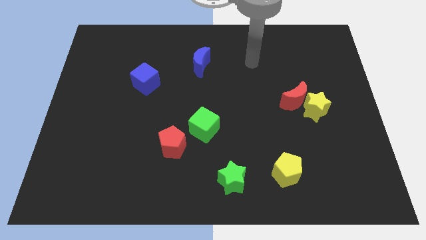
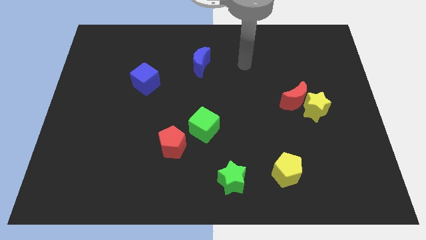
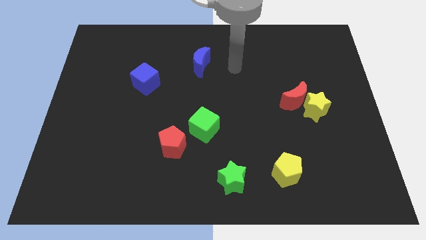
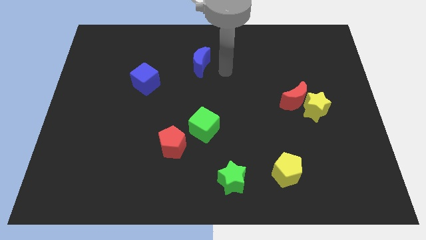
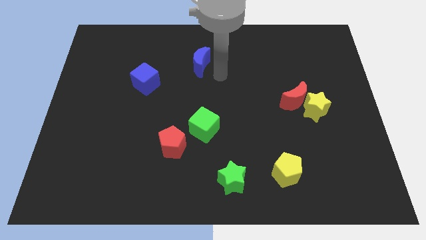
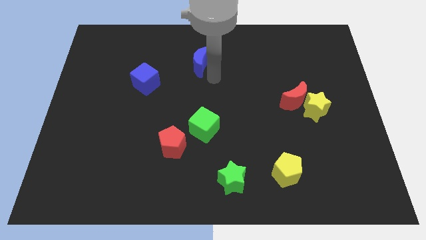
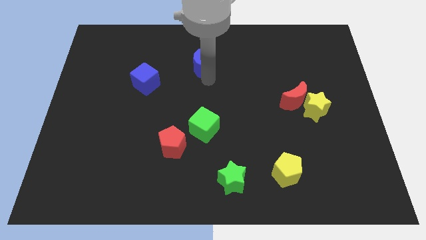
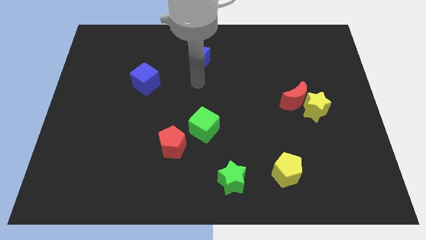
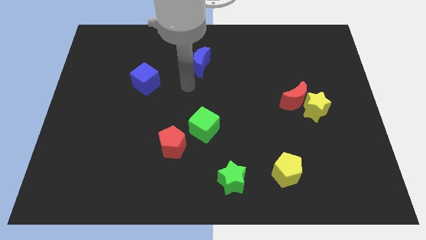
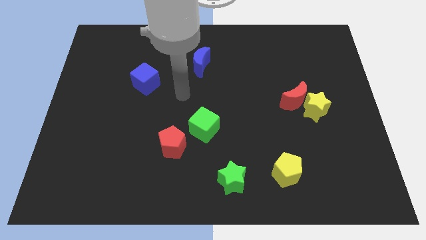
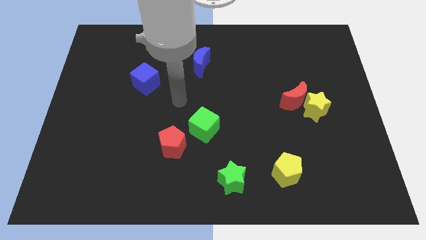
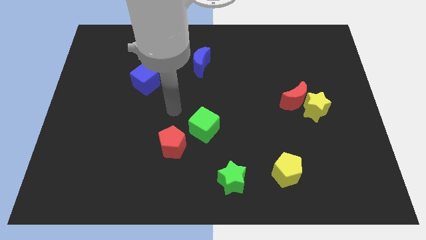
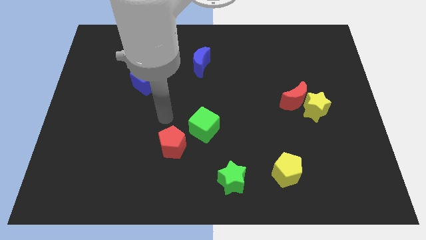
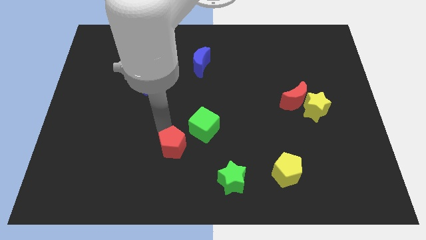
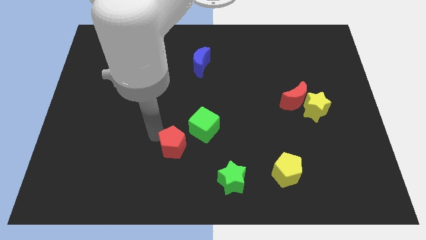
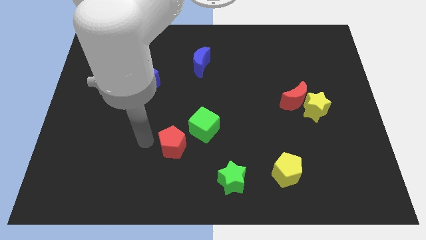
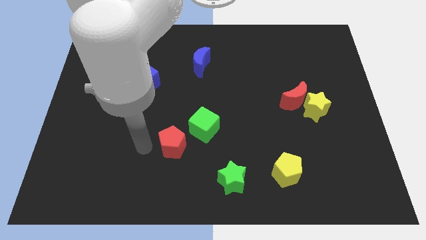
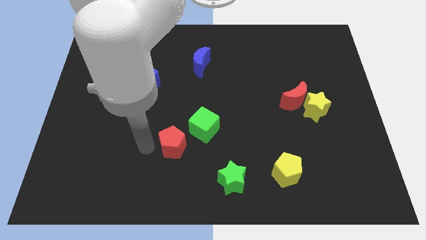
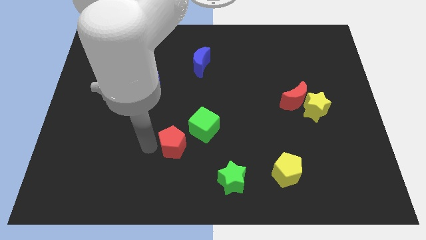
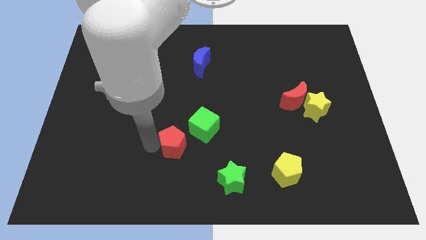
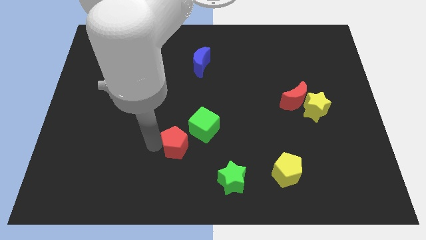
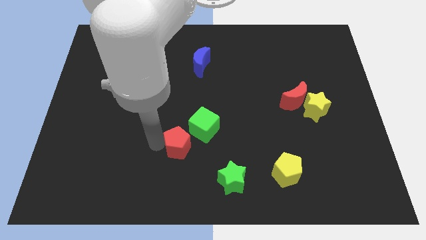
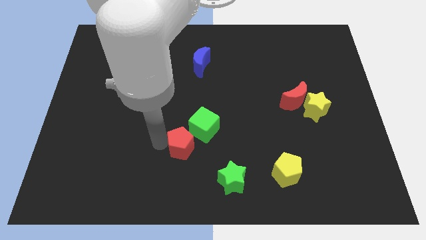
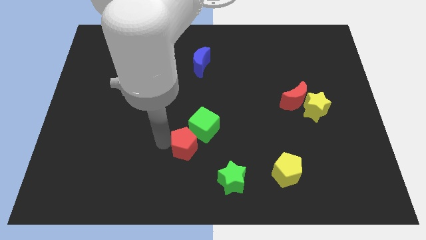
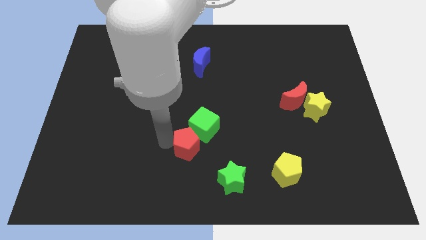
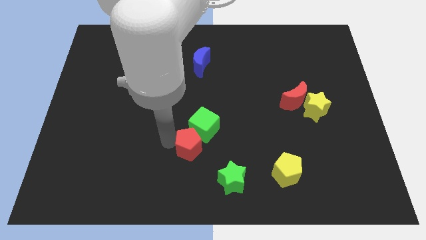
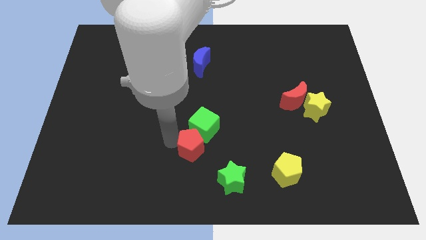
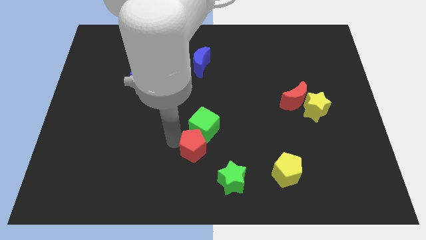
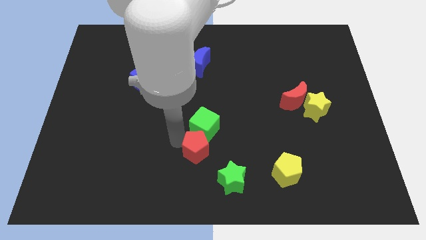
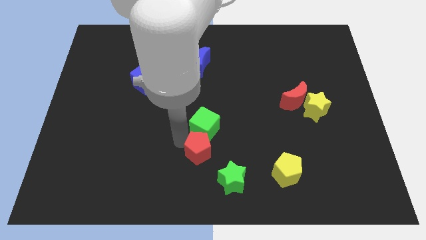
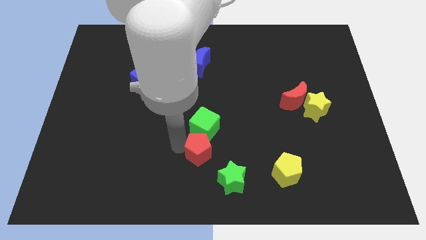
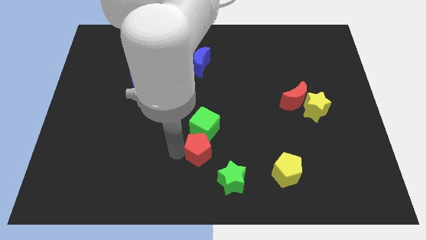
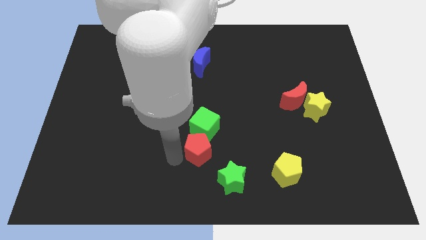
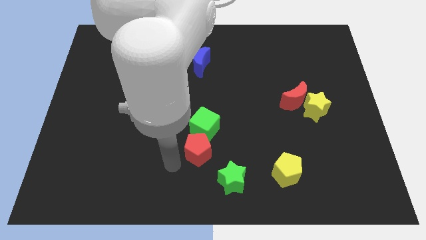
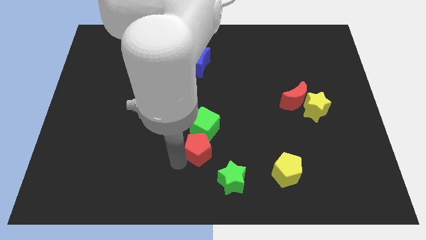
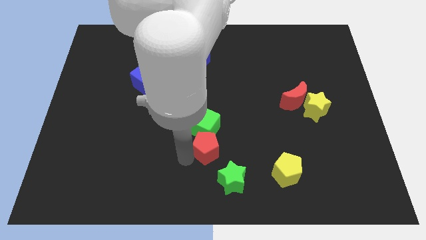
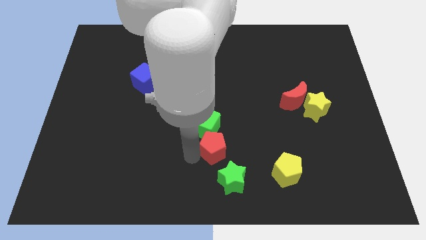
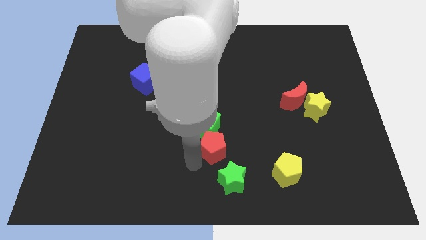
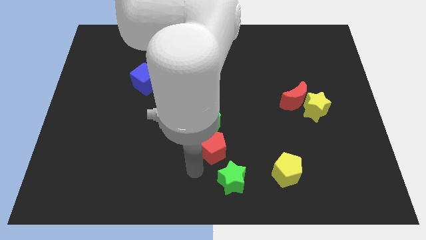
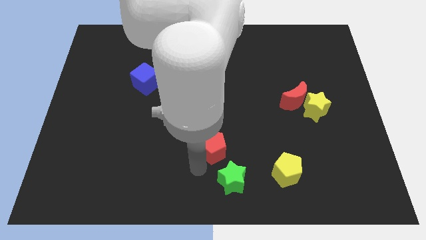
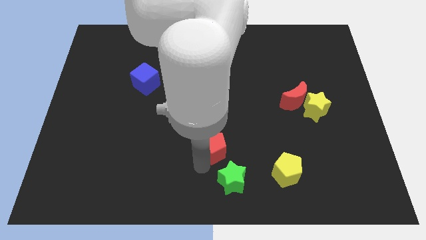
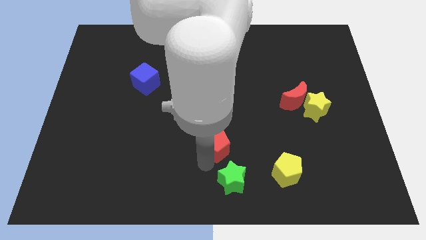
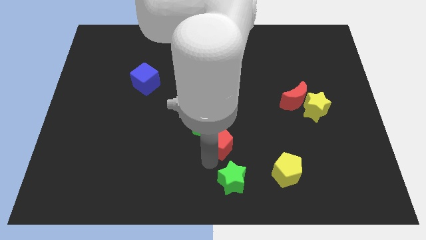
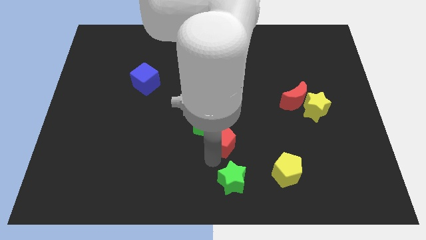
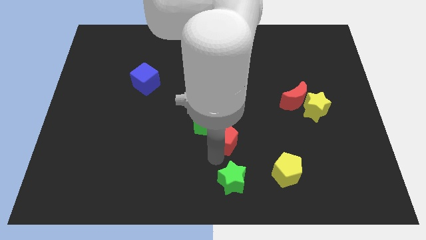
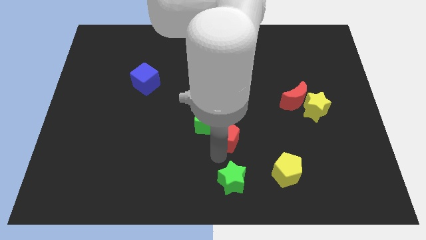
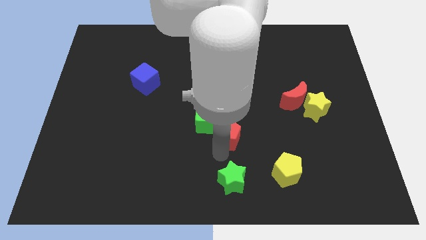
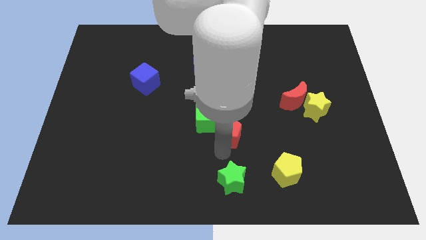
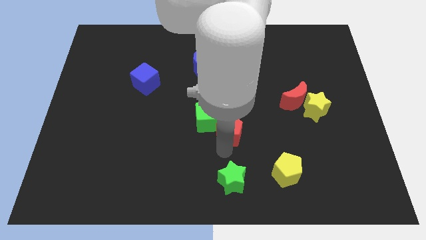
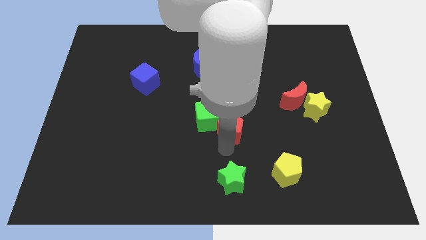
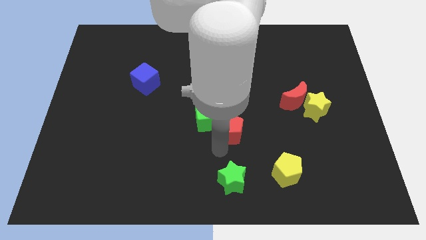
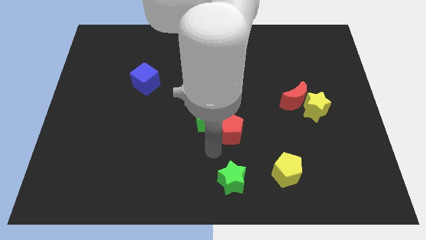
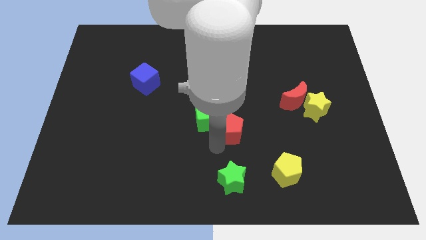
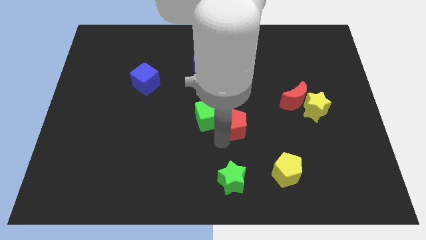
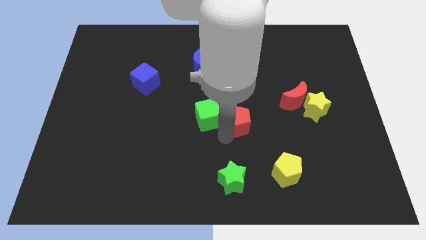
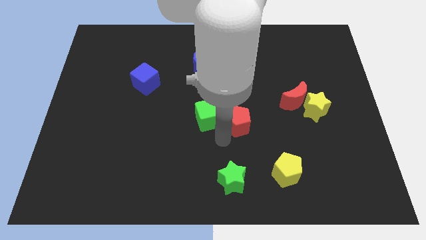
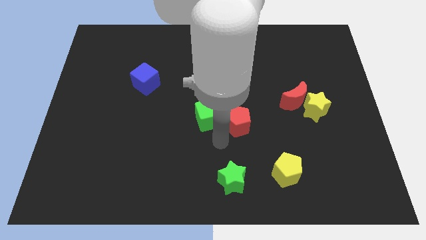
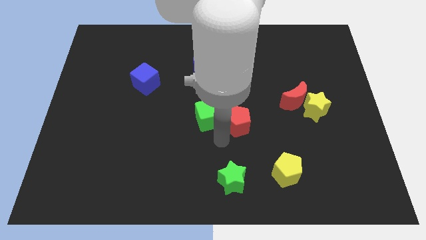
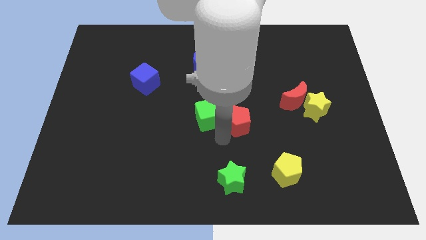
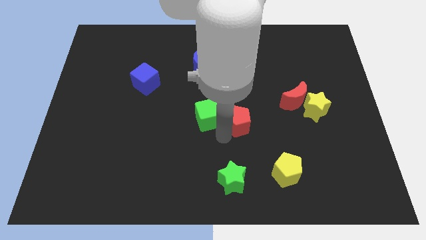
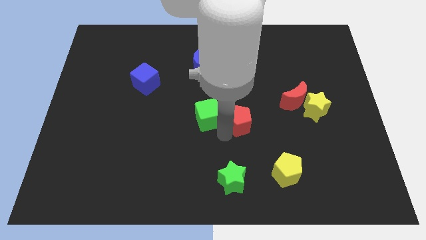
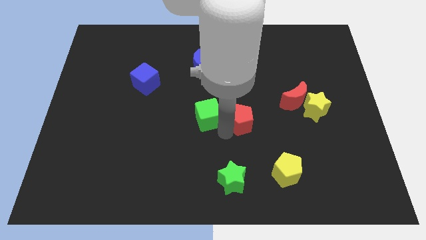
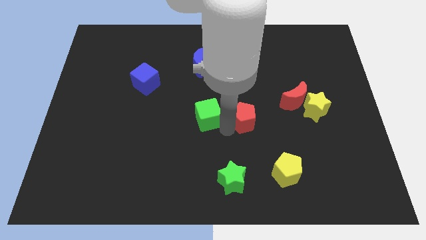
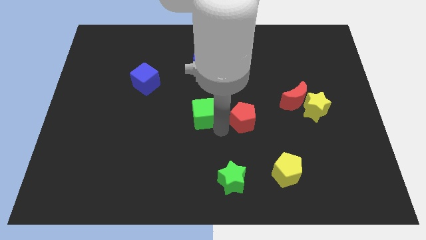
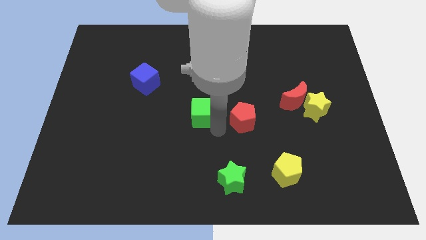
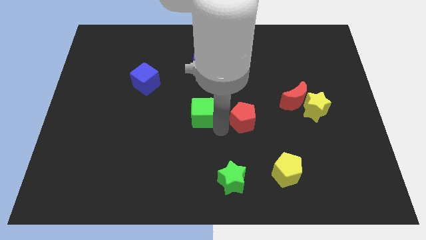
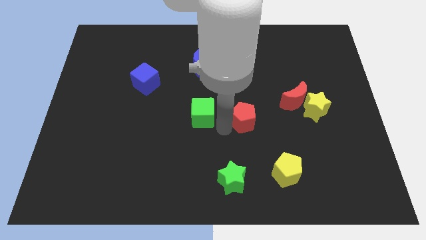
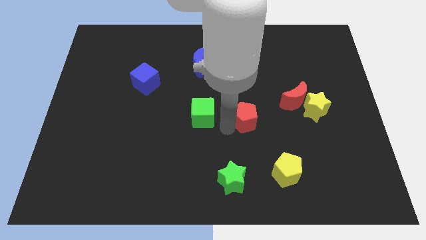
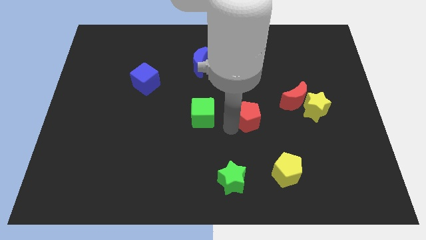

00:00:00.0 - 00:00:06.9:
push the red pentagon left of the yellow star

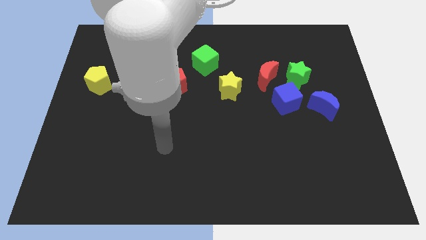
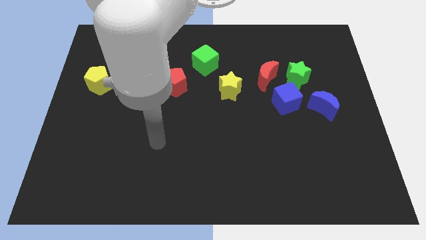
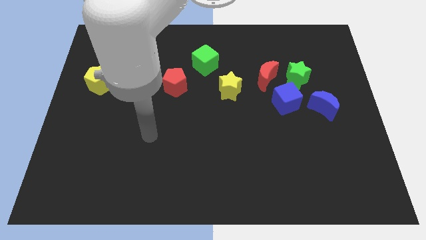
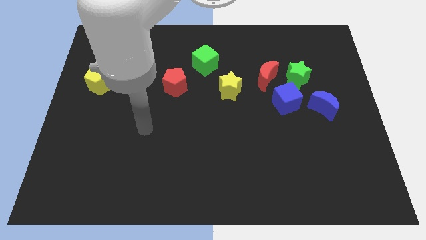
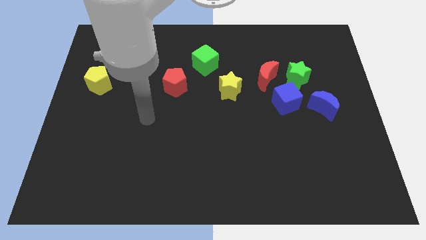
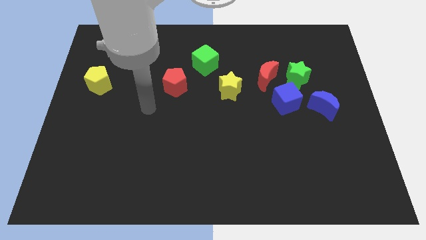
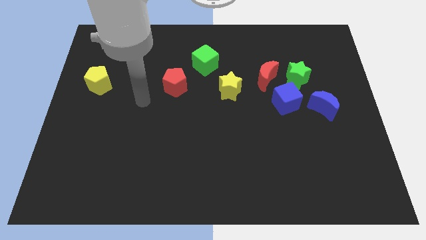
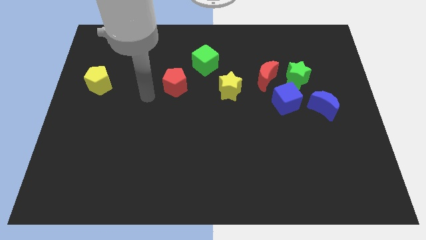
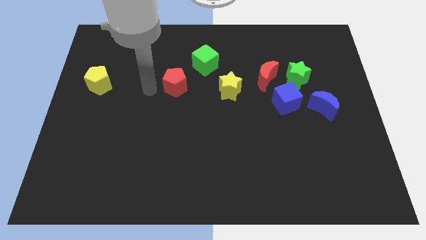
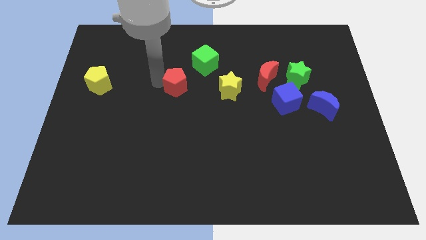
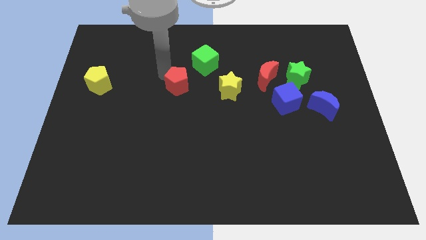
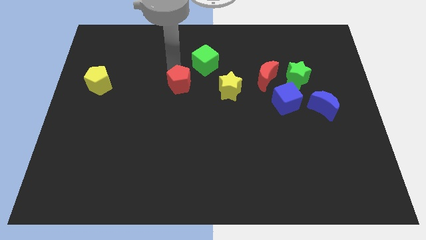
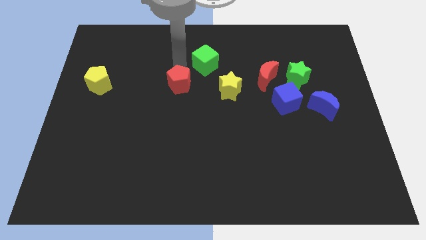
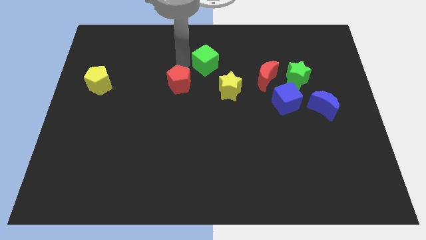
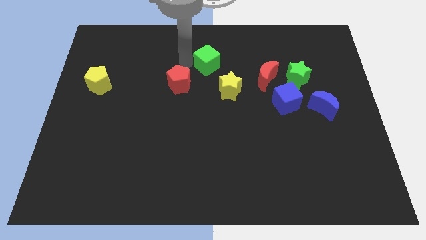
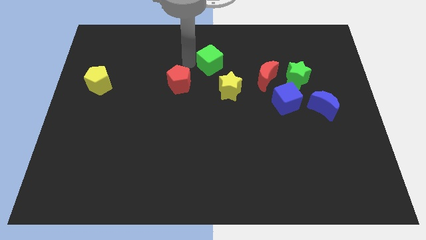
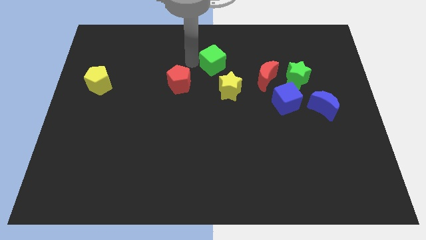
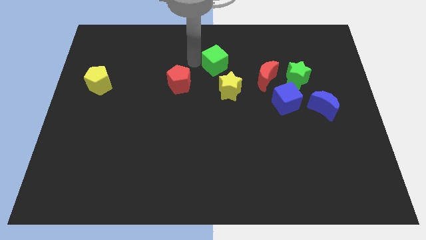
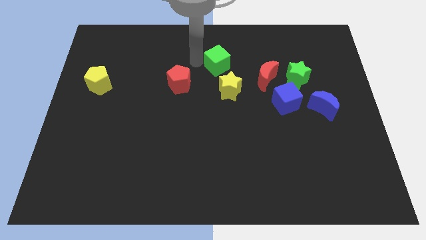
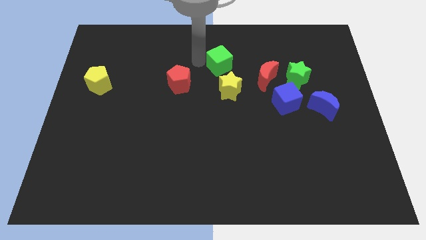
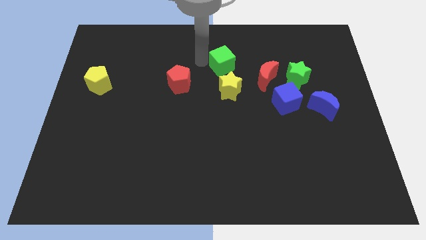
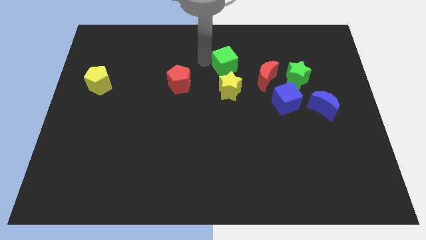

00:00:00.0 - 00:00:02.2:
put the green cube to the top left of the red moon
